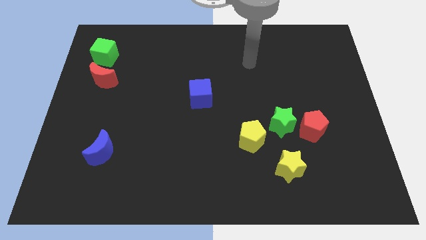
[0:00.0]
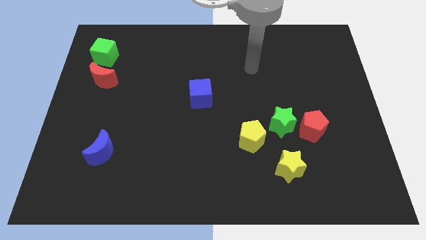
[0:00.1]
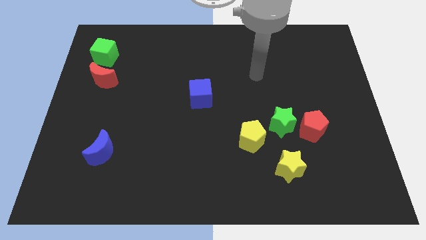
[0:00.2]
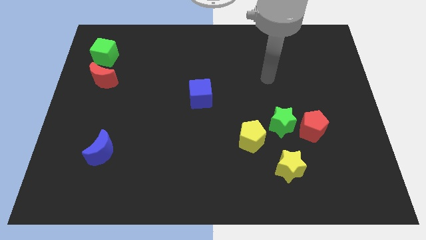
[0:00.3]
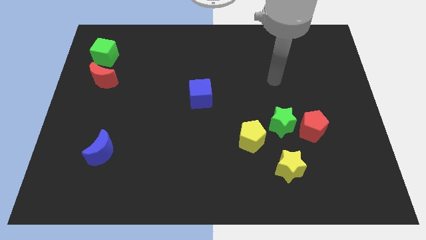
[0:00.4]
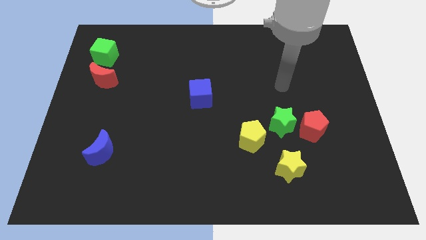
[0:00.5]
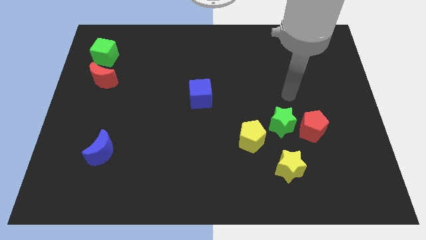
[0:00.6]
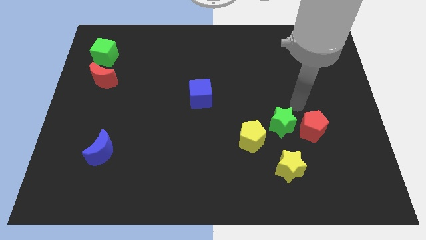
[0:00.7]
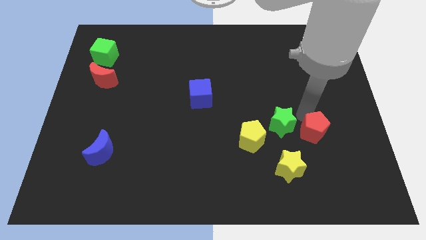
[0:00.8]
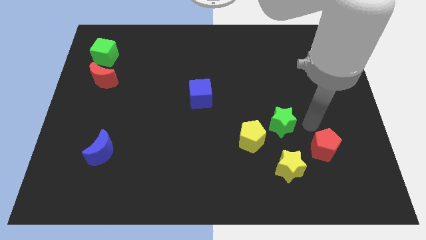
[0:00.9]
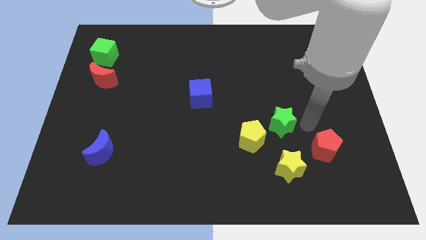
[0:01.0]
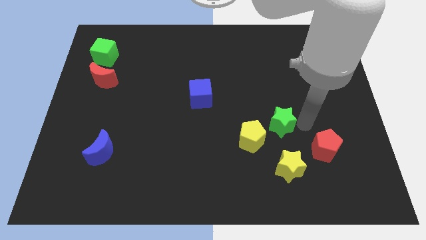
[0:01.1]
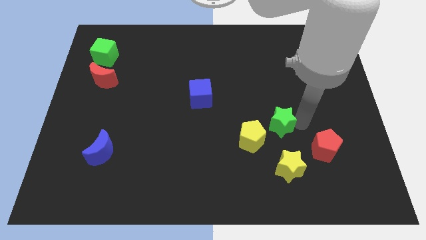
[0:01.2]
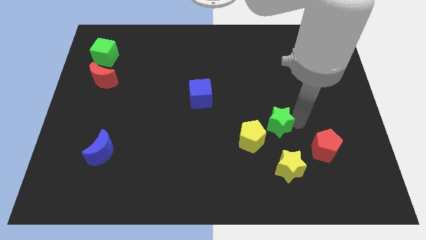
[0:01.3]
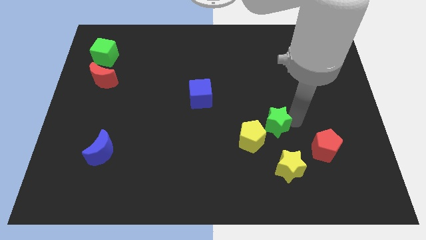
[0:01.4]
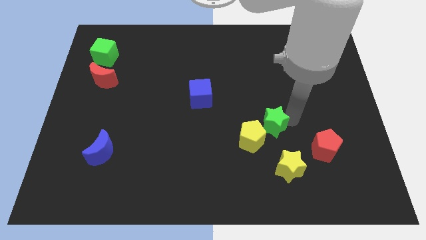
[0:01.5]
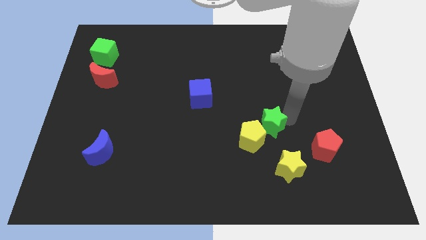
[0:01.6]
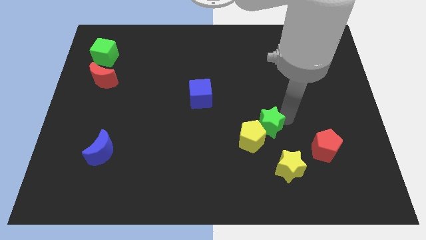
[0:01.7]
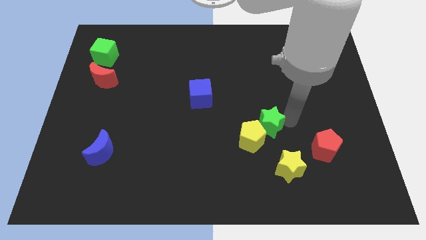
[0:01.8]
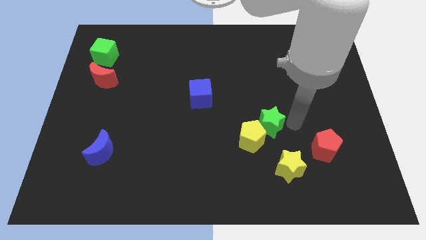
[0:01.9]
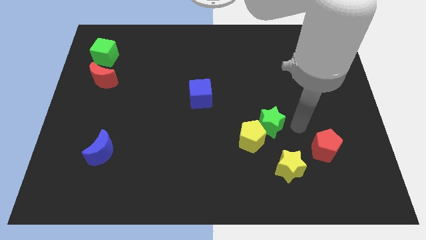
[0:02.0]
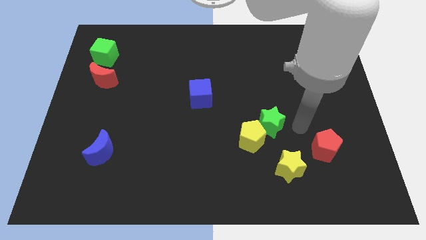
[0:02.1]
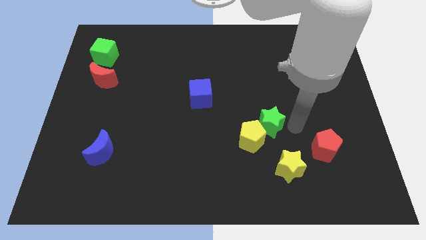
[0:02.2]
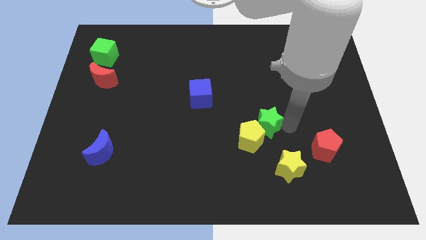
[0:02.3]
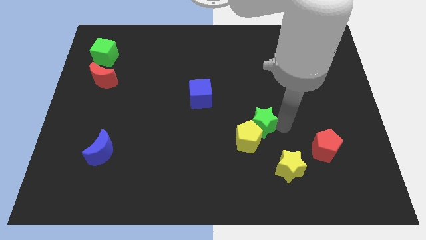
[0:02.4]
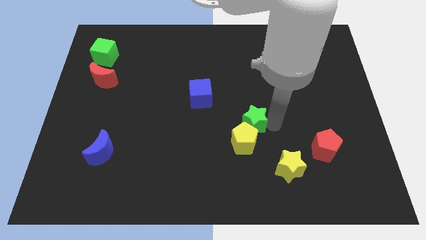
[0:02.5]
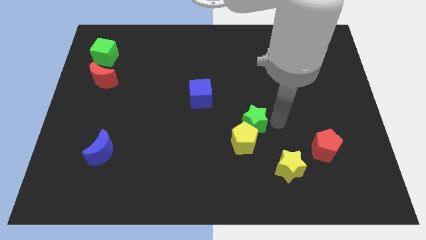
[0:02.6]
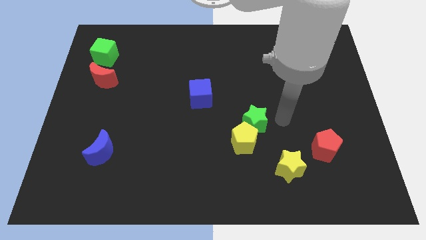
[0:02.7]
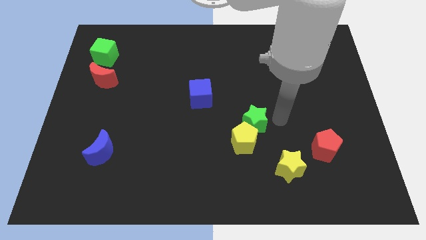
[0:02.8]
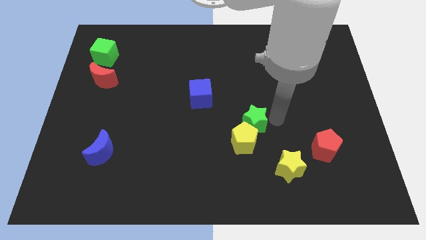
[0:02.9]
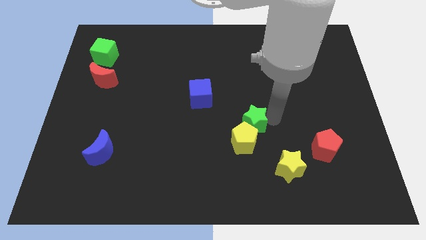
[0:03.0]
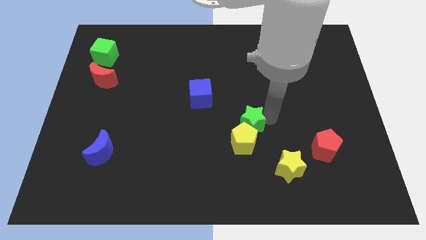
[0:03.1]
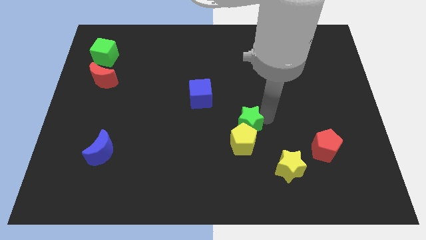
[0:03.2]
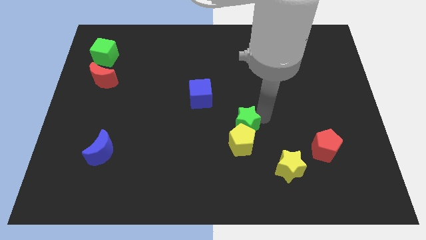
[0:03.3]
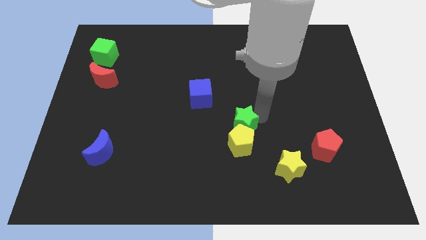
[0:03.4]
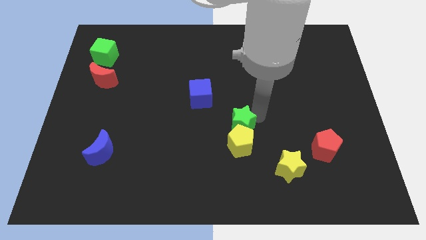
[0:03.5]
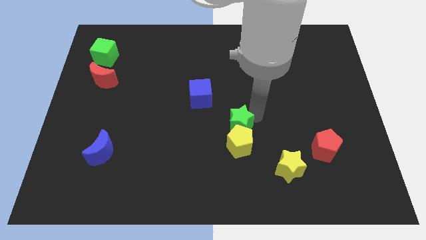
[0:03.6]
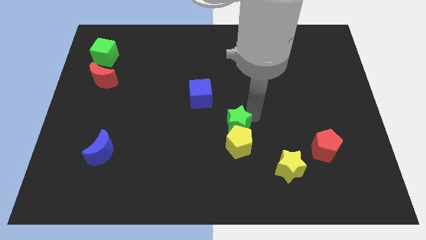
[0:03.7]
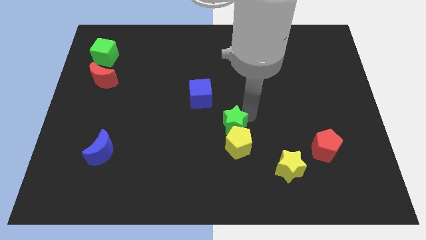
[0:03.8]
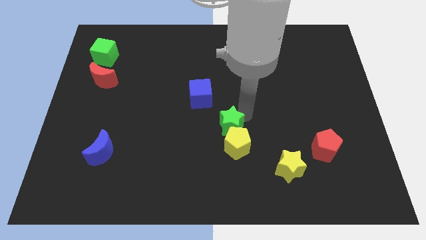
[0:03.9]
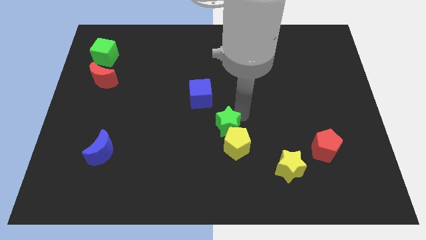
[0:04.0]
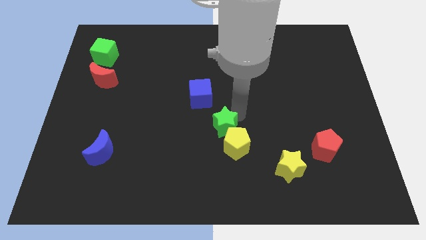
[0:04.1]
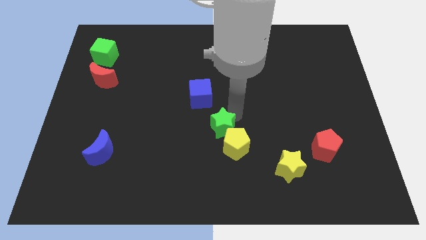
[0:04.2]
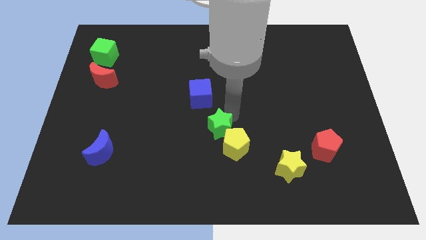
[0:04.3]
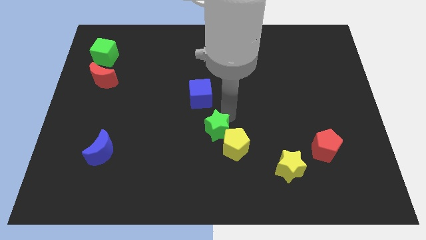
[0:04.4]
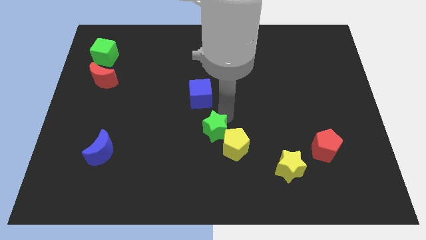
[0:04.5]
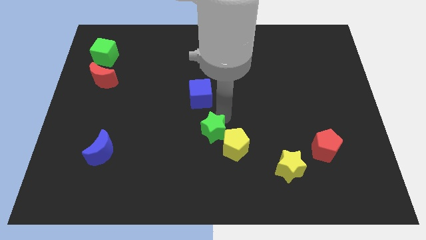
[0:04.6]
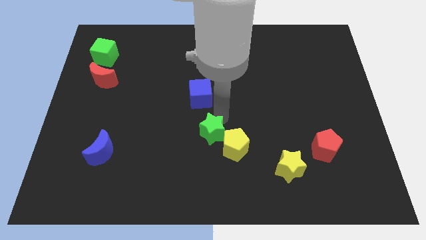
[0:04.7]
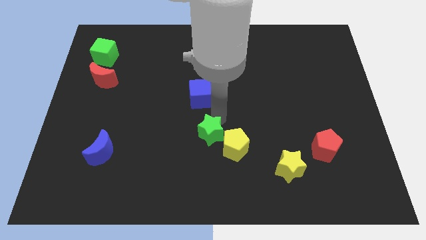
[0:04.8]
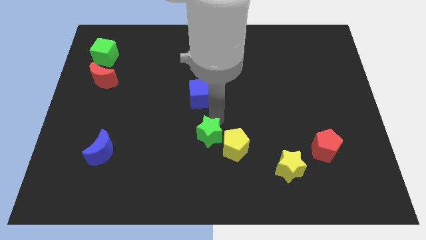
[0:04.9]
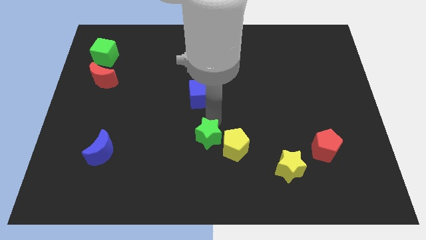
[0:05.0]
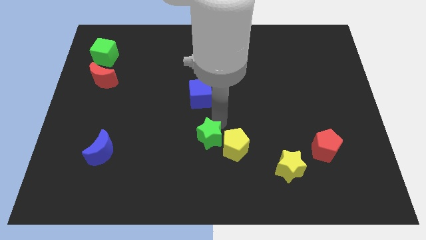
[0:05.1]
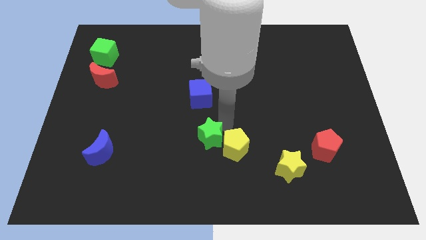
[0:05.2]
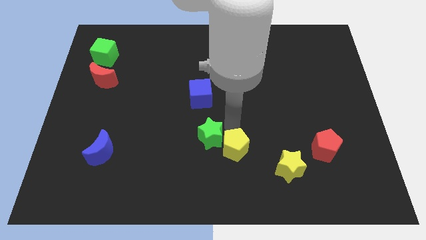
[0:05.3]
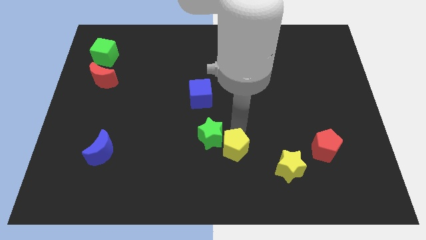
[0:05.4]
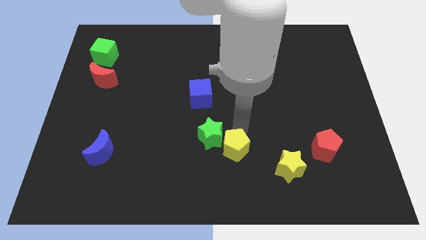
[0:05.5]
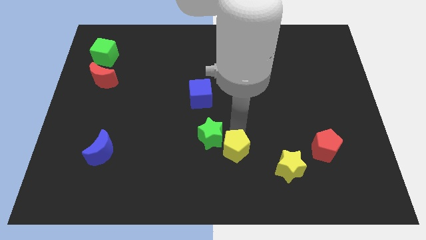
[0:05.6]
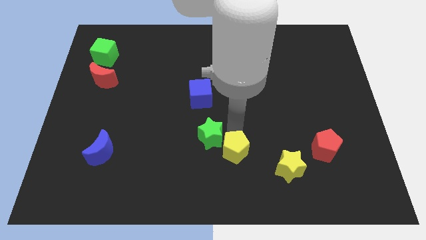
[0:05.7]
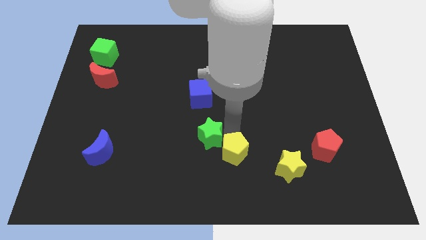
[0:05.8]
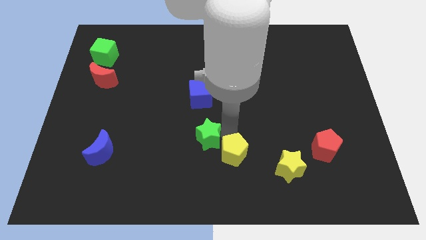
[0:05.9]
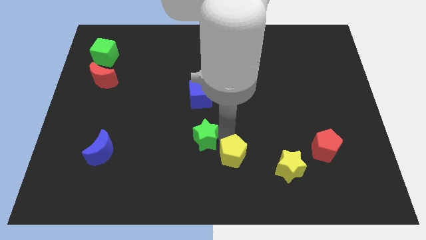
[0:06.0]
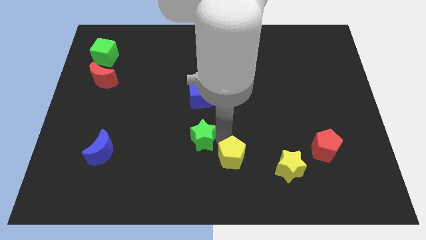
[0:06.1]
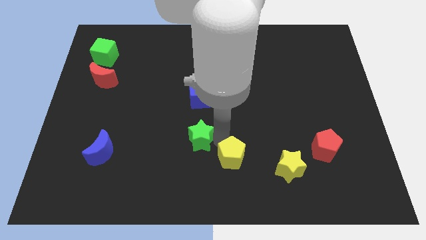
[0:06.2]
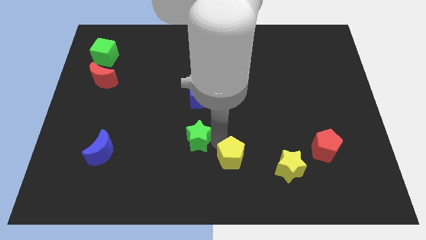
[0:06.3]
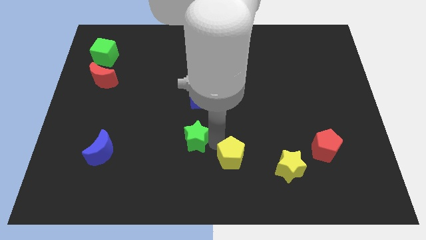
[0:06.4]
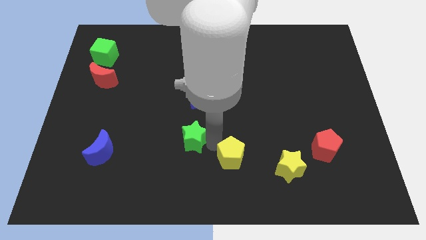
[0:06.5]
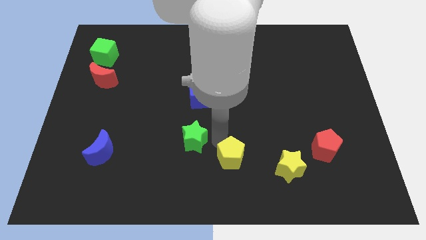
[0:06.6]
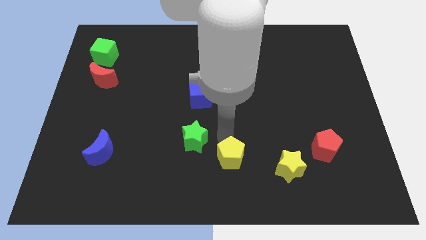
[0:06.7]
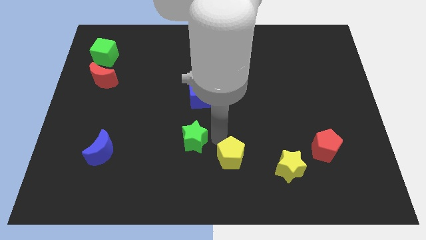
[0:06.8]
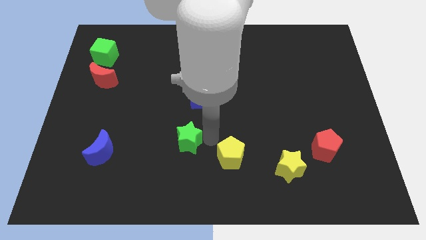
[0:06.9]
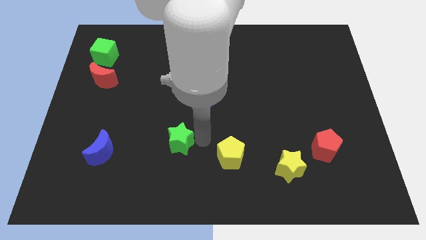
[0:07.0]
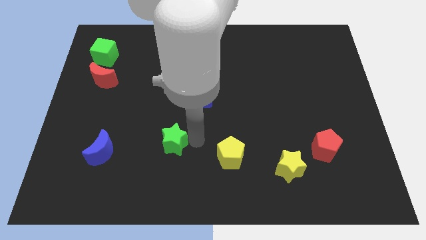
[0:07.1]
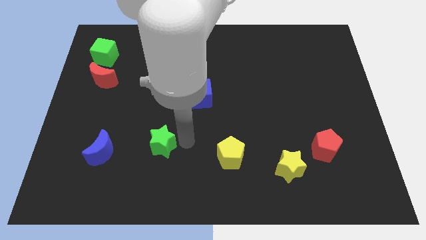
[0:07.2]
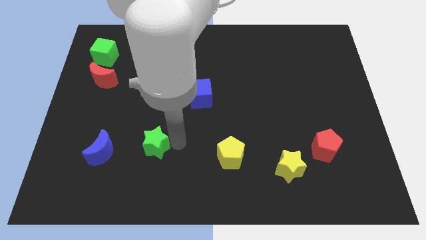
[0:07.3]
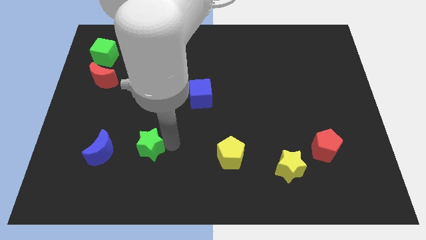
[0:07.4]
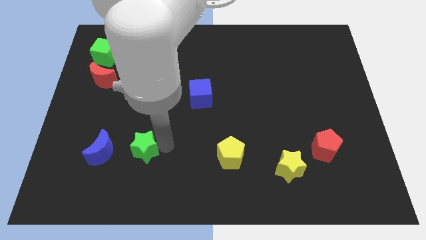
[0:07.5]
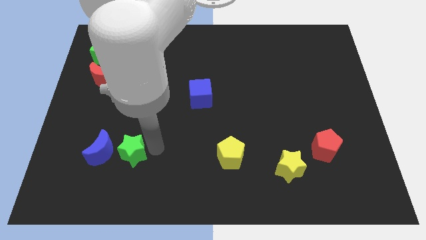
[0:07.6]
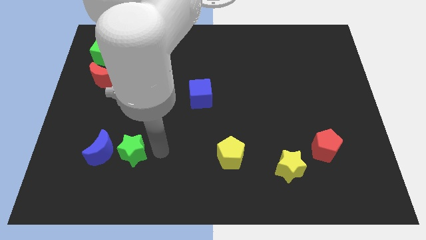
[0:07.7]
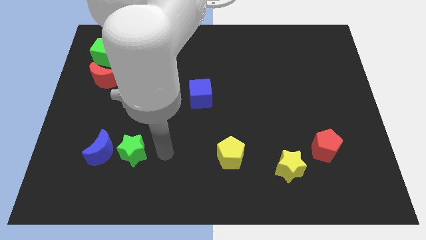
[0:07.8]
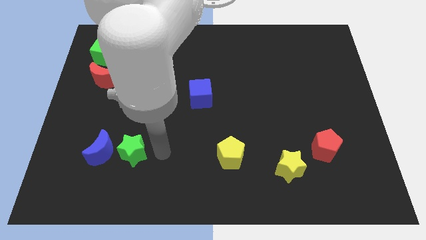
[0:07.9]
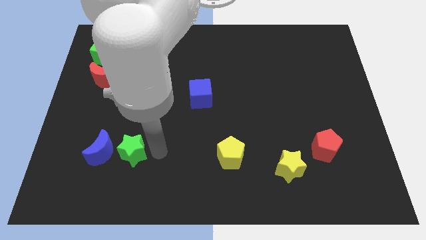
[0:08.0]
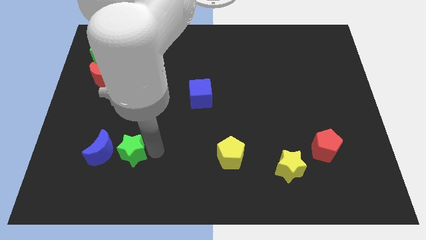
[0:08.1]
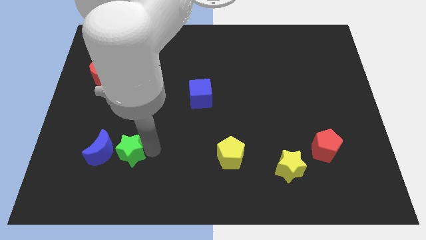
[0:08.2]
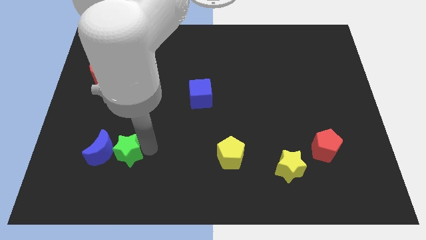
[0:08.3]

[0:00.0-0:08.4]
push the green star to the blue moon

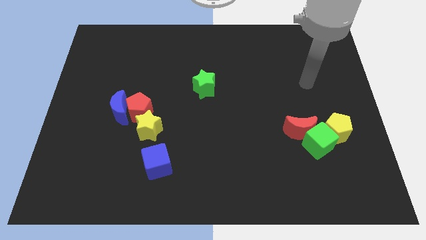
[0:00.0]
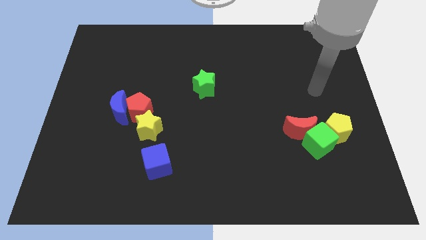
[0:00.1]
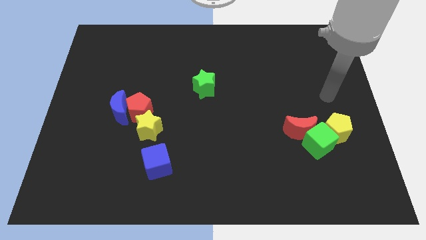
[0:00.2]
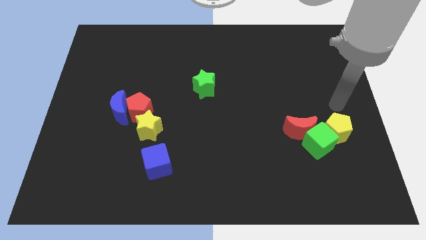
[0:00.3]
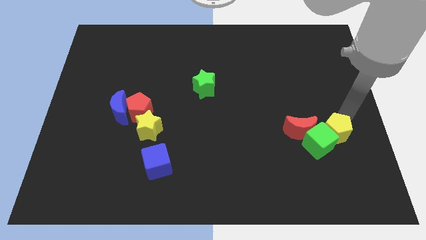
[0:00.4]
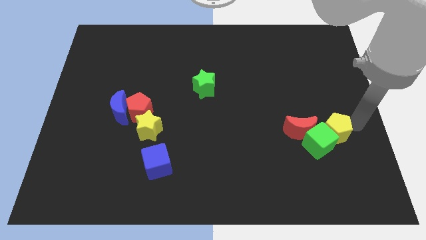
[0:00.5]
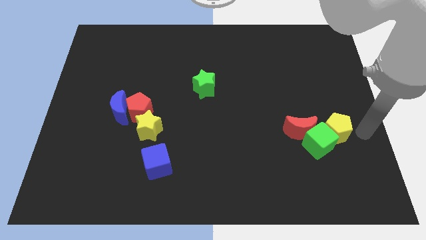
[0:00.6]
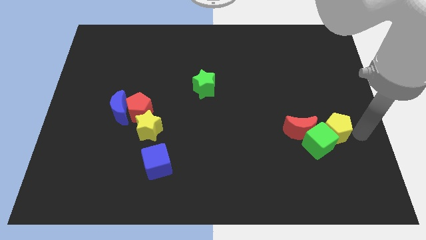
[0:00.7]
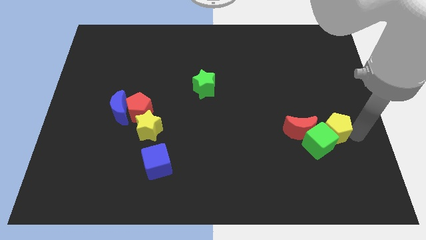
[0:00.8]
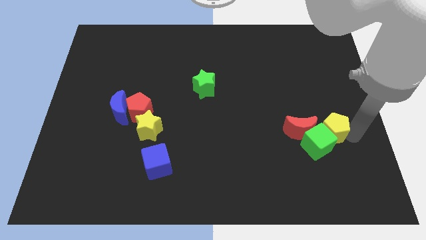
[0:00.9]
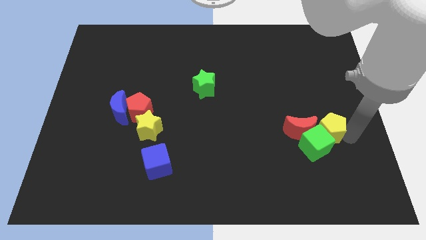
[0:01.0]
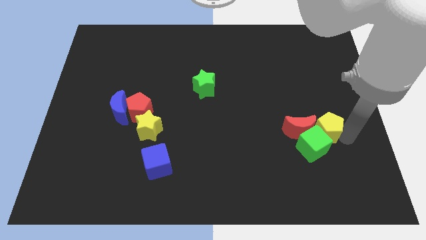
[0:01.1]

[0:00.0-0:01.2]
move the yellow pentagon close to the red moon
